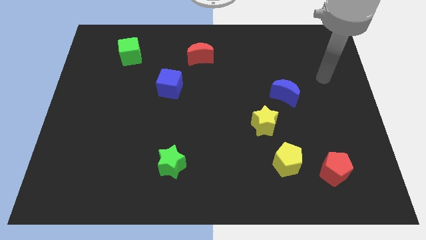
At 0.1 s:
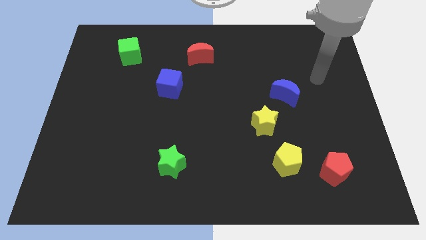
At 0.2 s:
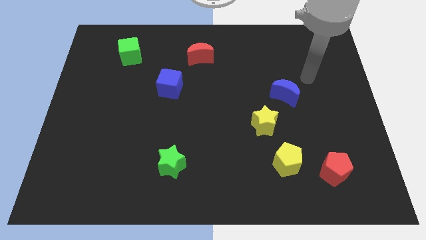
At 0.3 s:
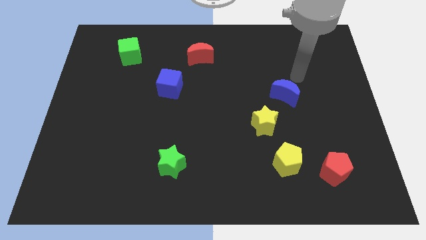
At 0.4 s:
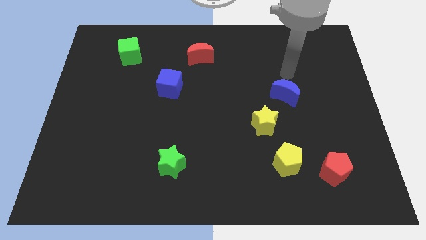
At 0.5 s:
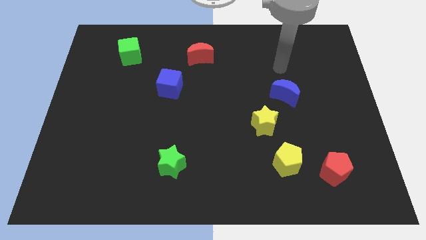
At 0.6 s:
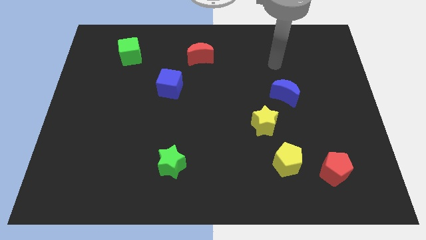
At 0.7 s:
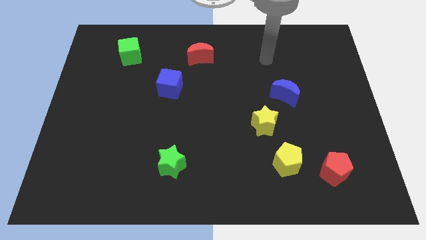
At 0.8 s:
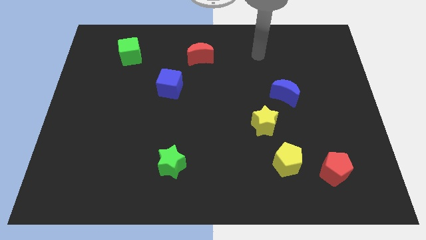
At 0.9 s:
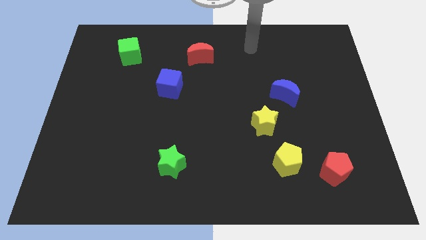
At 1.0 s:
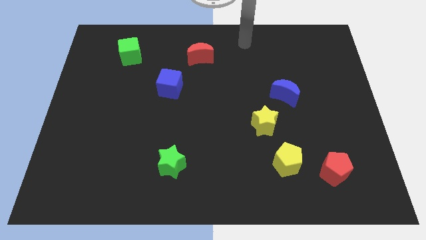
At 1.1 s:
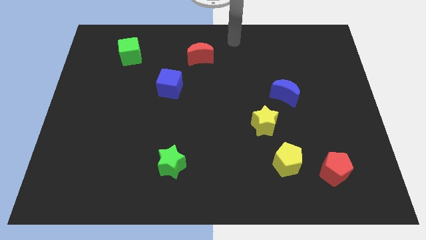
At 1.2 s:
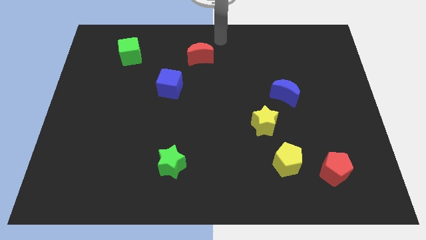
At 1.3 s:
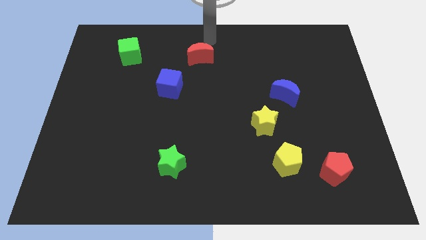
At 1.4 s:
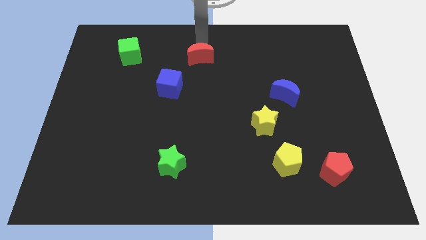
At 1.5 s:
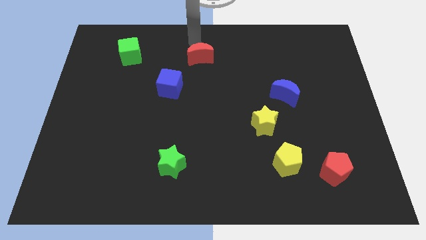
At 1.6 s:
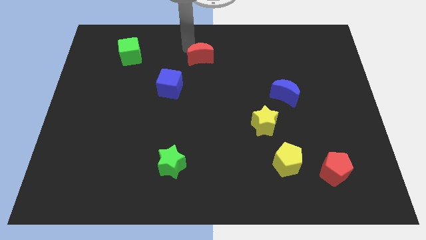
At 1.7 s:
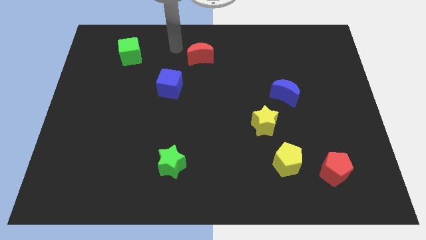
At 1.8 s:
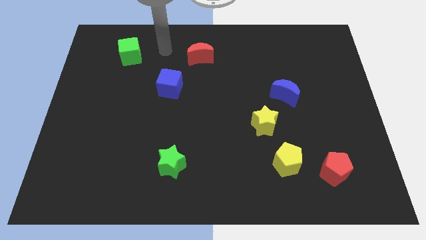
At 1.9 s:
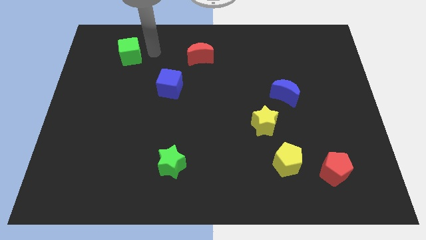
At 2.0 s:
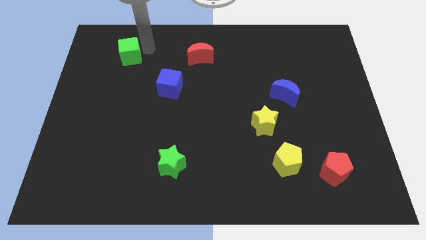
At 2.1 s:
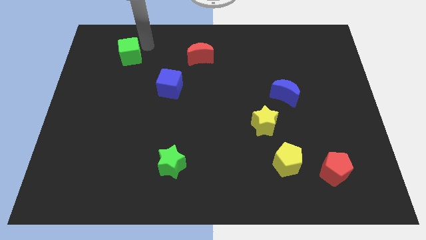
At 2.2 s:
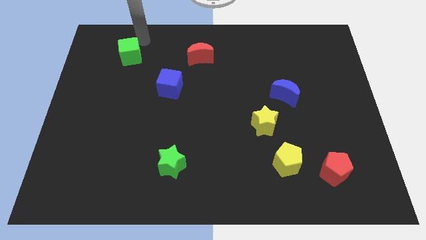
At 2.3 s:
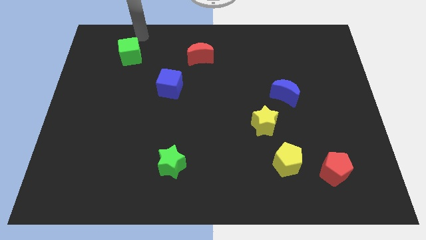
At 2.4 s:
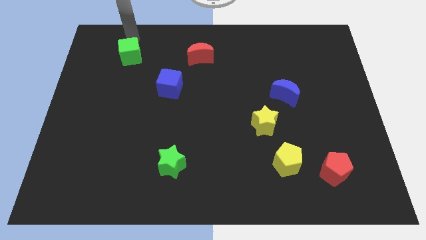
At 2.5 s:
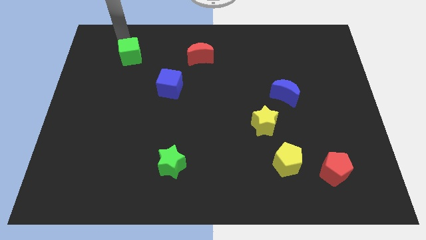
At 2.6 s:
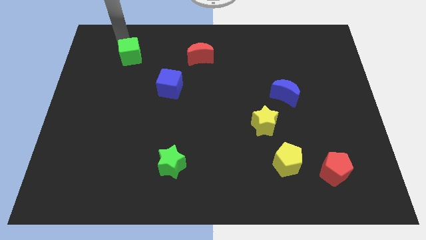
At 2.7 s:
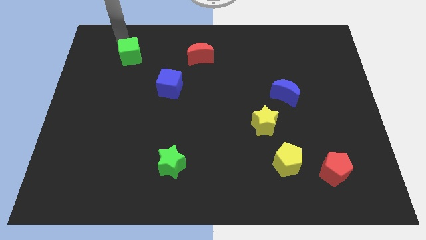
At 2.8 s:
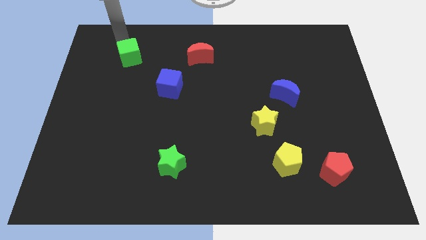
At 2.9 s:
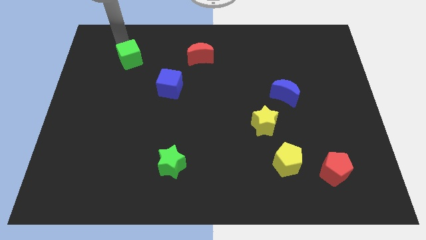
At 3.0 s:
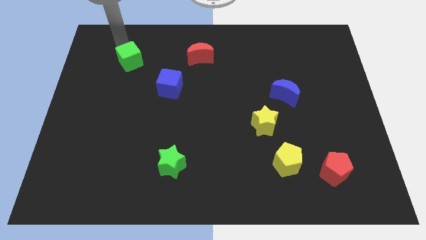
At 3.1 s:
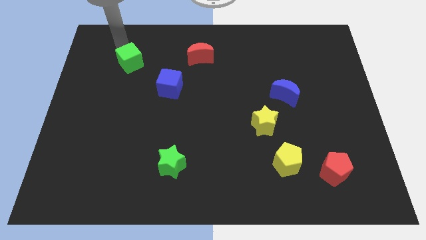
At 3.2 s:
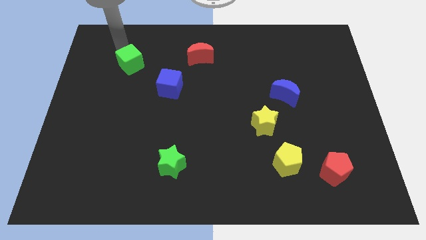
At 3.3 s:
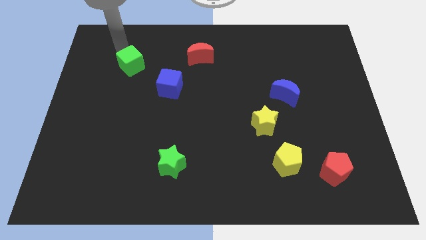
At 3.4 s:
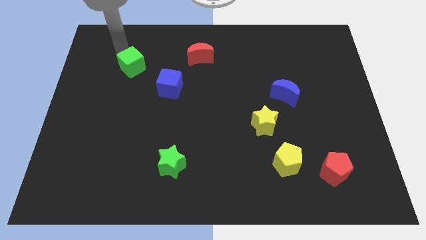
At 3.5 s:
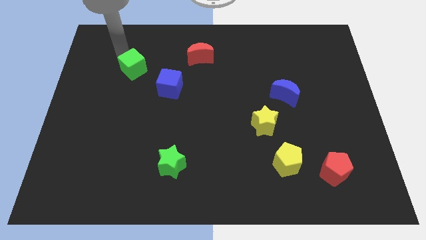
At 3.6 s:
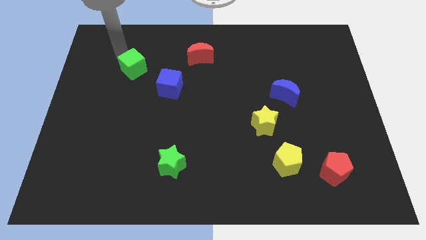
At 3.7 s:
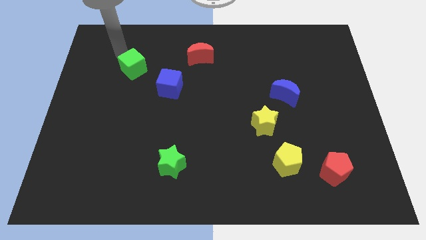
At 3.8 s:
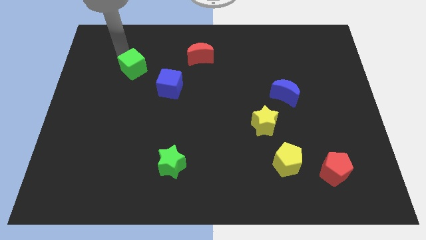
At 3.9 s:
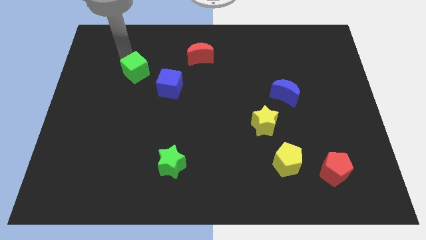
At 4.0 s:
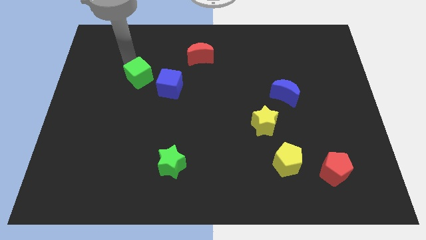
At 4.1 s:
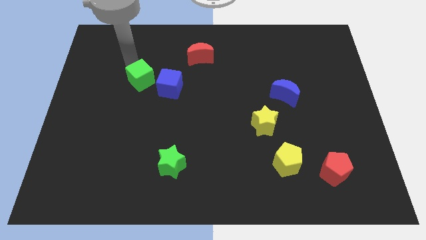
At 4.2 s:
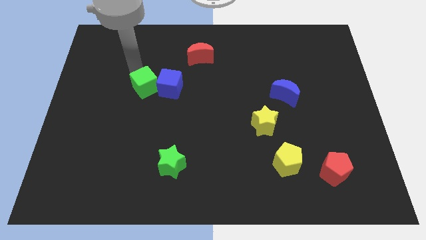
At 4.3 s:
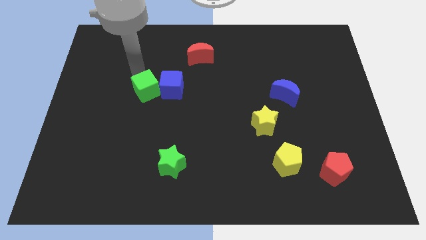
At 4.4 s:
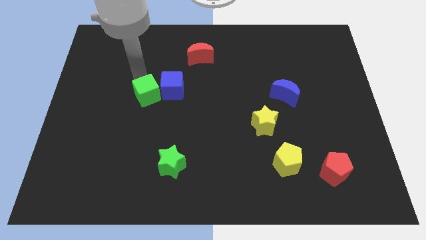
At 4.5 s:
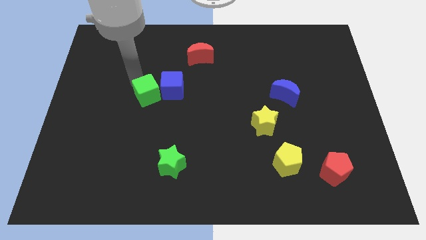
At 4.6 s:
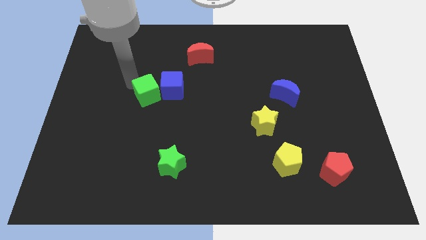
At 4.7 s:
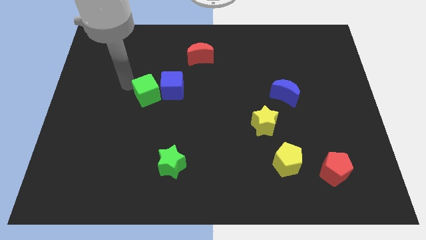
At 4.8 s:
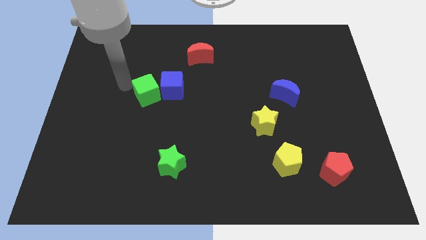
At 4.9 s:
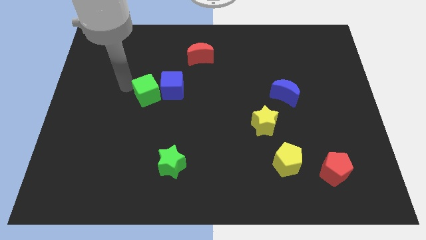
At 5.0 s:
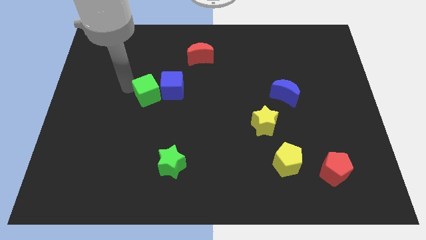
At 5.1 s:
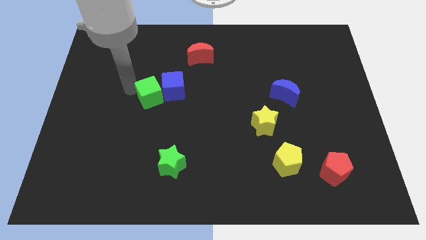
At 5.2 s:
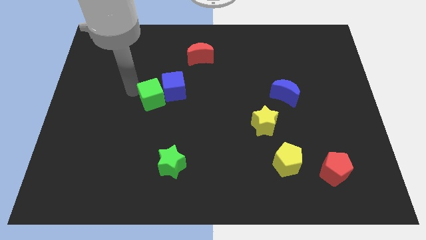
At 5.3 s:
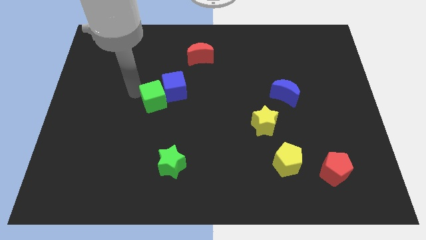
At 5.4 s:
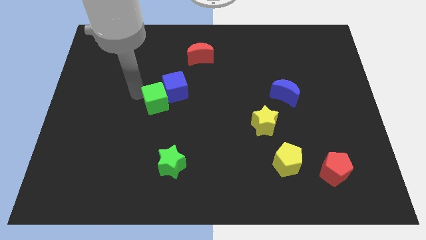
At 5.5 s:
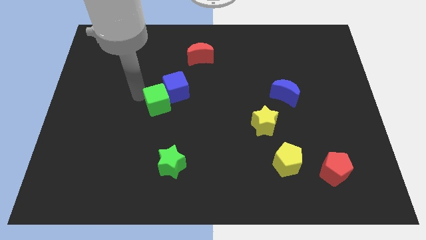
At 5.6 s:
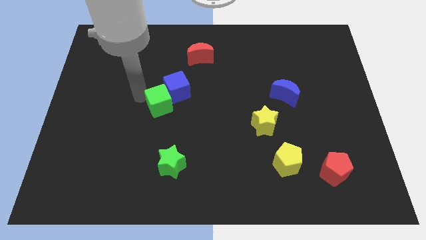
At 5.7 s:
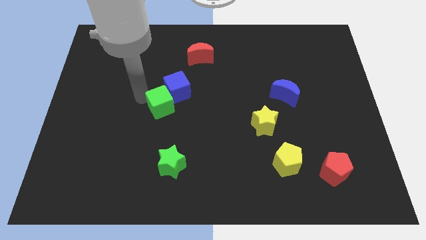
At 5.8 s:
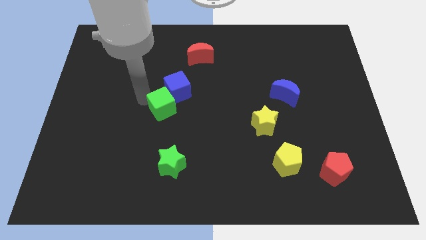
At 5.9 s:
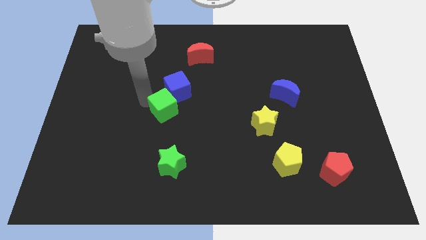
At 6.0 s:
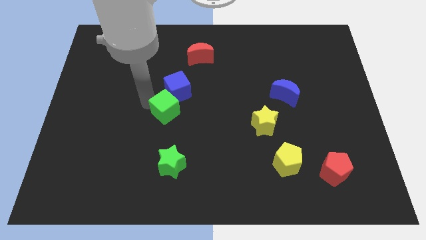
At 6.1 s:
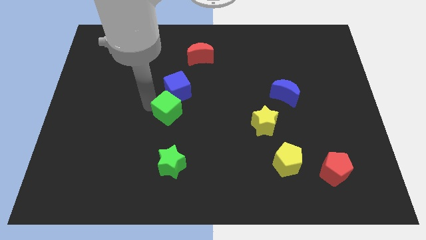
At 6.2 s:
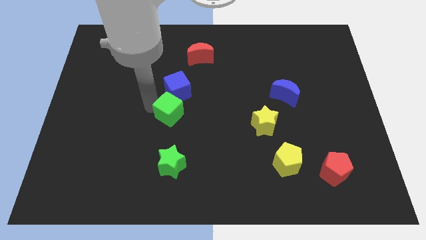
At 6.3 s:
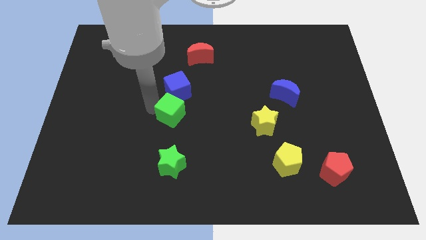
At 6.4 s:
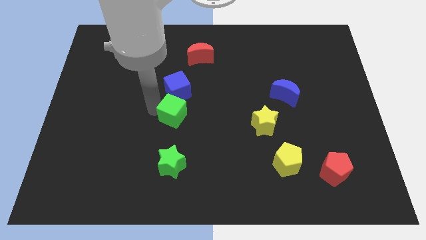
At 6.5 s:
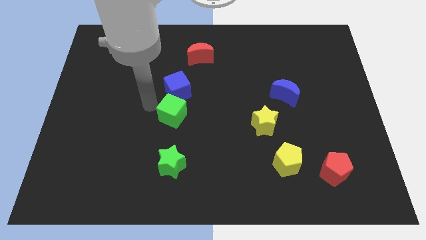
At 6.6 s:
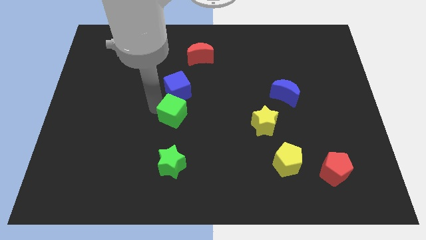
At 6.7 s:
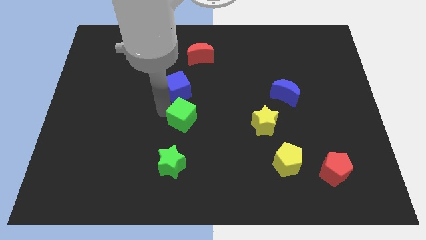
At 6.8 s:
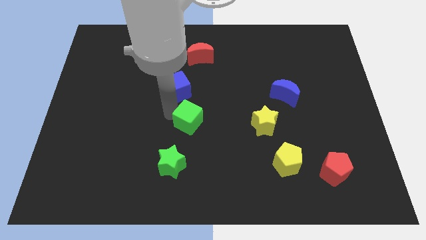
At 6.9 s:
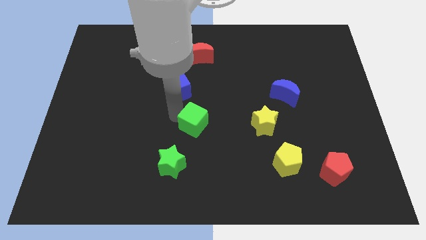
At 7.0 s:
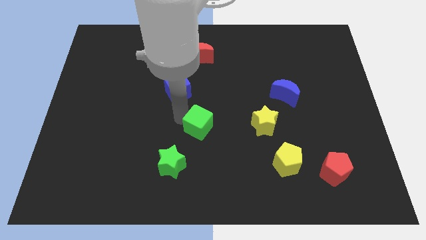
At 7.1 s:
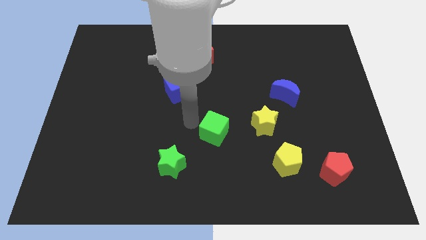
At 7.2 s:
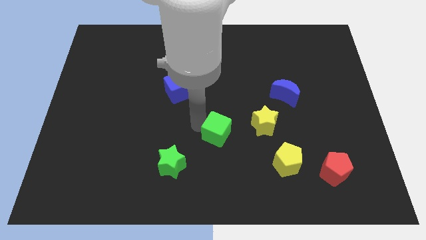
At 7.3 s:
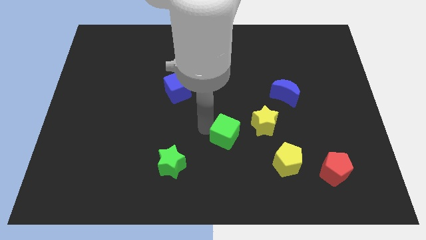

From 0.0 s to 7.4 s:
push the green cube to the bottom left side of the yellow star

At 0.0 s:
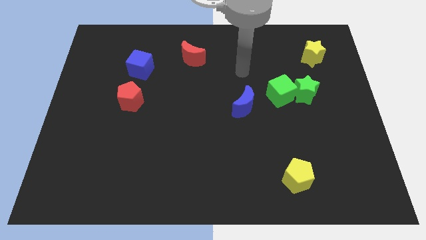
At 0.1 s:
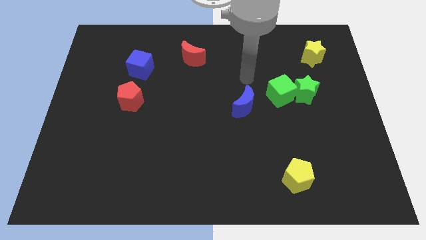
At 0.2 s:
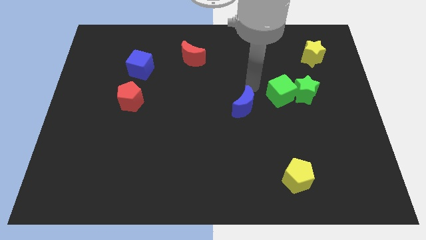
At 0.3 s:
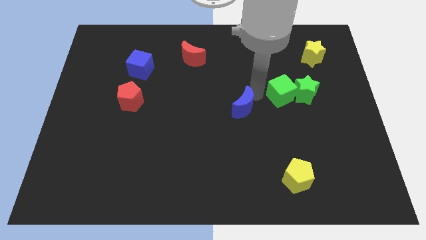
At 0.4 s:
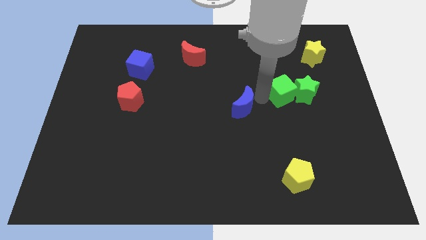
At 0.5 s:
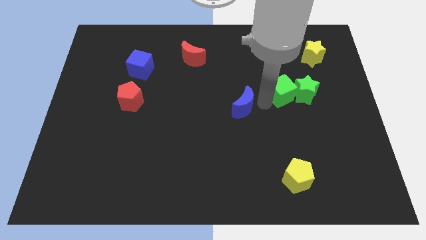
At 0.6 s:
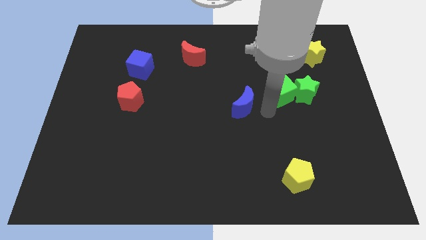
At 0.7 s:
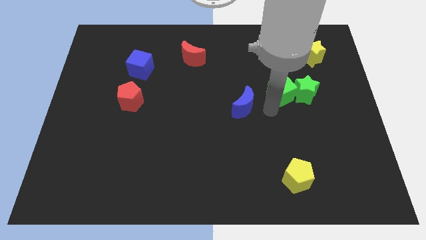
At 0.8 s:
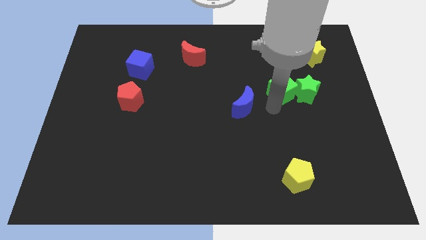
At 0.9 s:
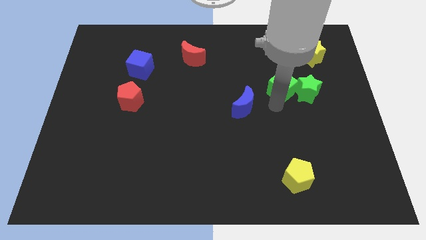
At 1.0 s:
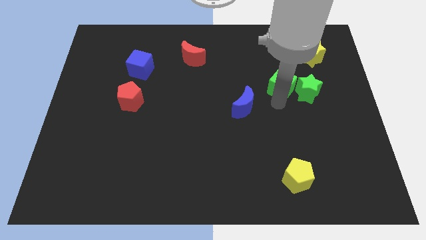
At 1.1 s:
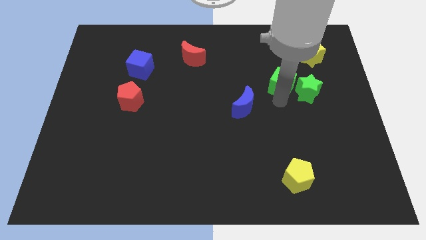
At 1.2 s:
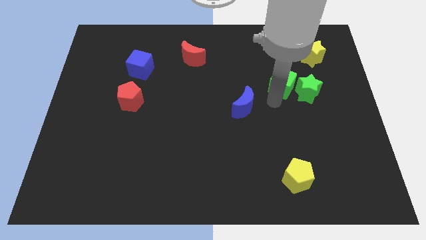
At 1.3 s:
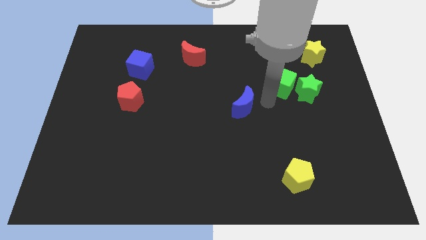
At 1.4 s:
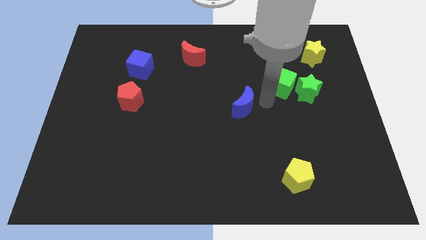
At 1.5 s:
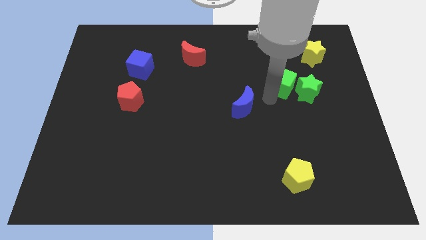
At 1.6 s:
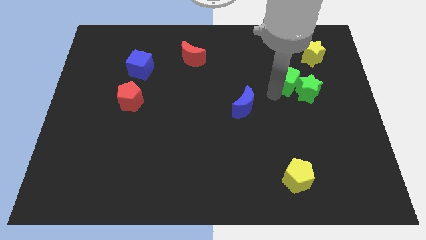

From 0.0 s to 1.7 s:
slide the green cube to the bottom left side of the yellow star
